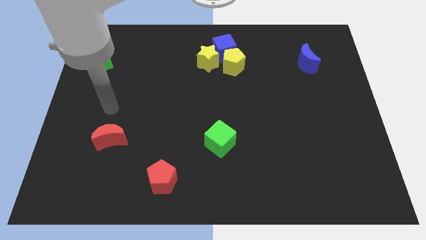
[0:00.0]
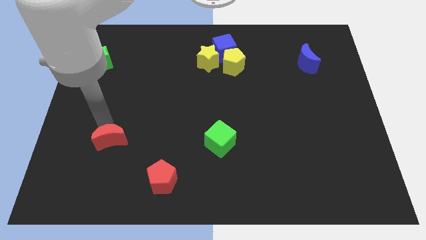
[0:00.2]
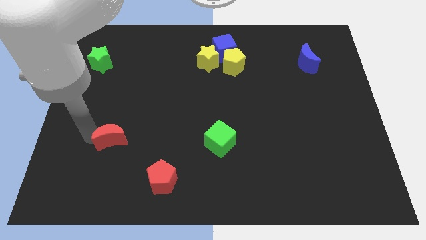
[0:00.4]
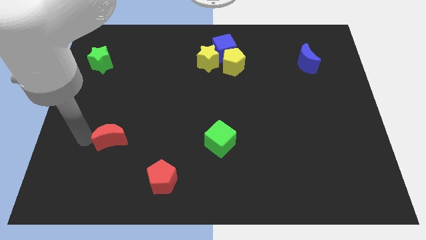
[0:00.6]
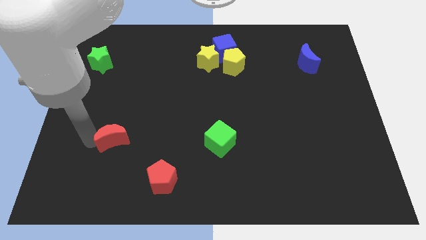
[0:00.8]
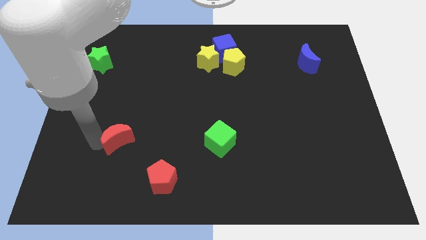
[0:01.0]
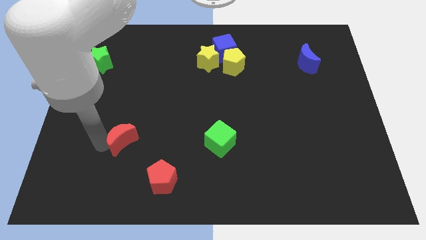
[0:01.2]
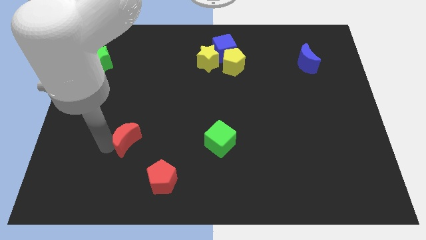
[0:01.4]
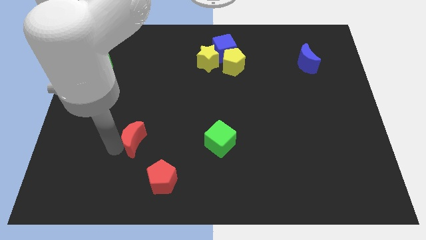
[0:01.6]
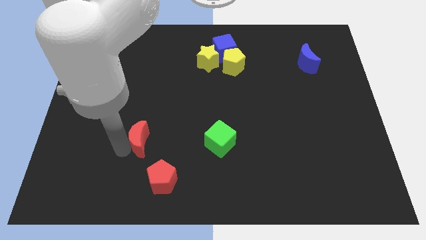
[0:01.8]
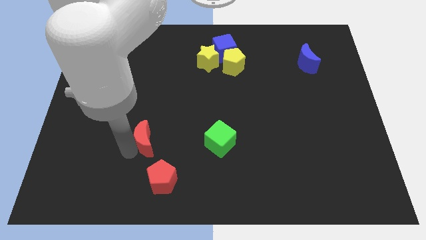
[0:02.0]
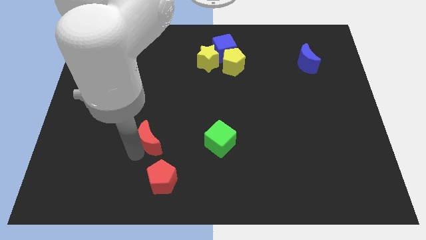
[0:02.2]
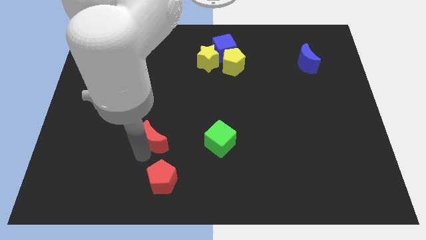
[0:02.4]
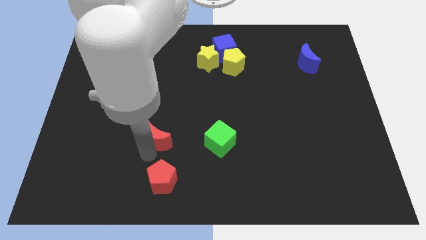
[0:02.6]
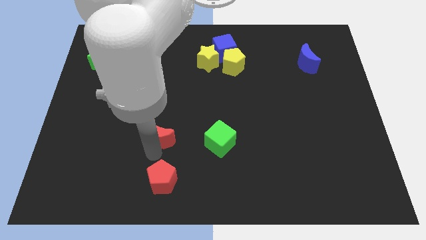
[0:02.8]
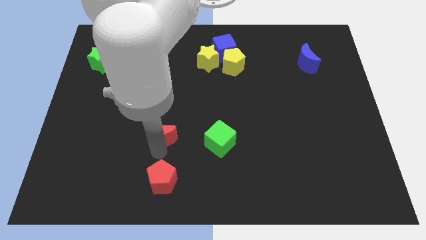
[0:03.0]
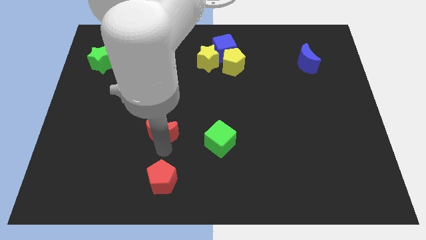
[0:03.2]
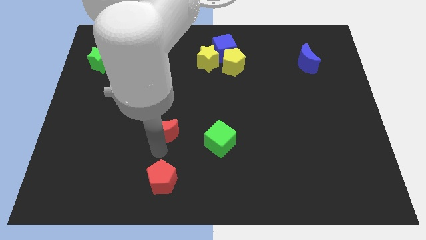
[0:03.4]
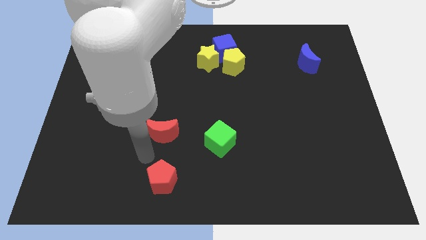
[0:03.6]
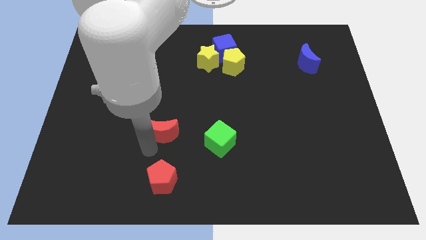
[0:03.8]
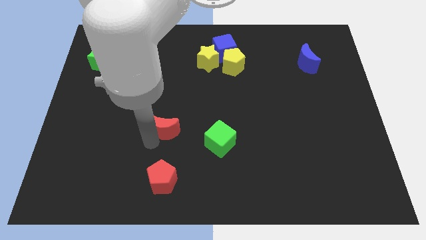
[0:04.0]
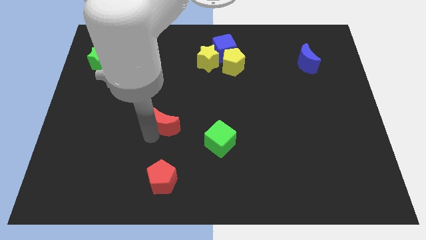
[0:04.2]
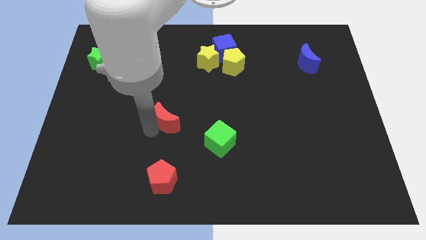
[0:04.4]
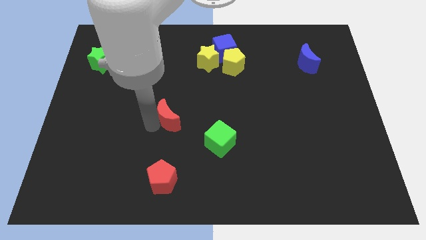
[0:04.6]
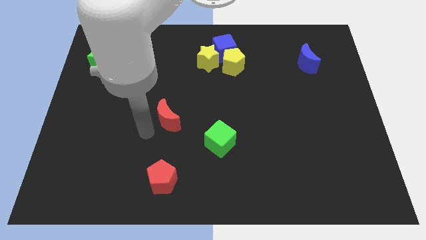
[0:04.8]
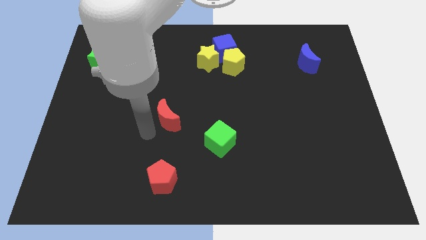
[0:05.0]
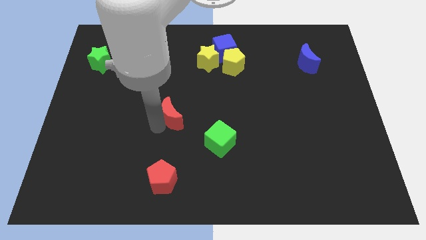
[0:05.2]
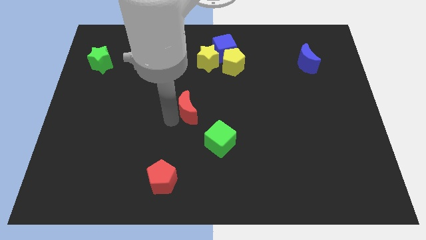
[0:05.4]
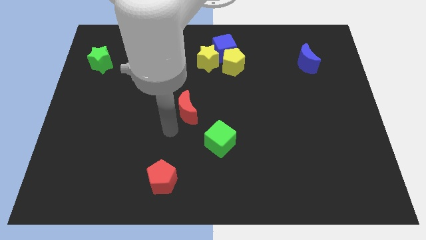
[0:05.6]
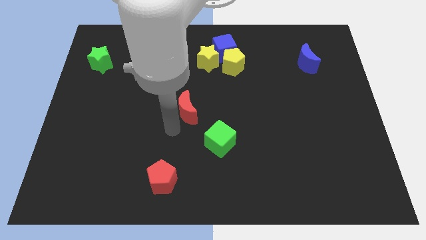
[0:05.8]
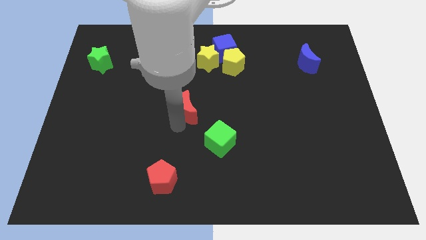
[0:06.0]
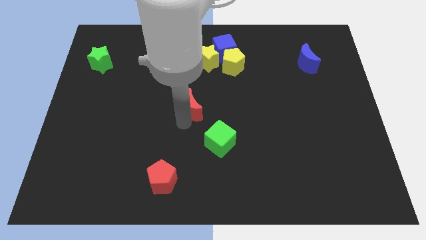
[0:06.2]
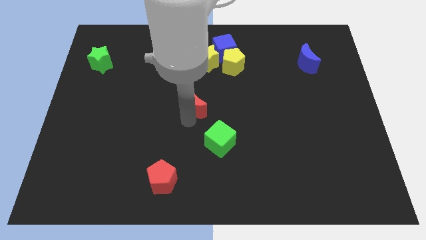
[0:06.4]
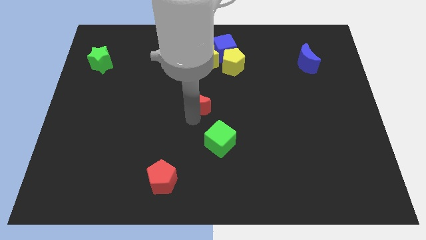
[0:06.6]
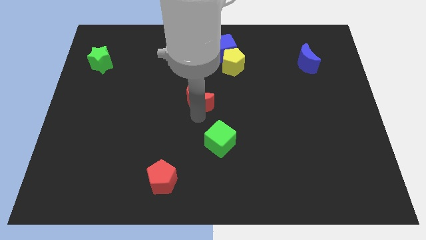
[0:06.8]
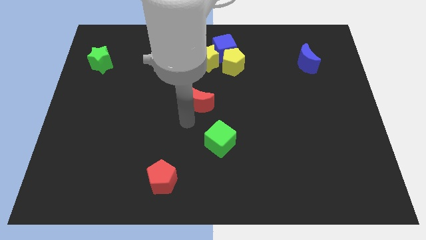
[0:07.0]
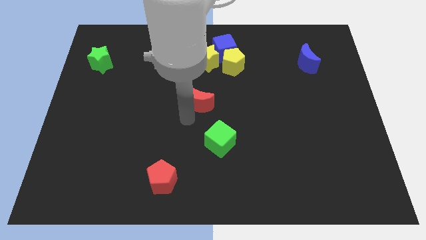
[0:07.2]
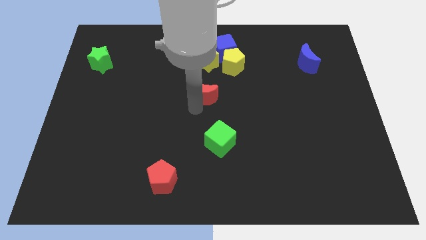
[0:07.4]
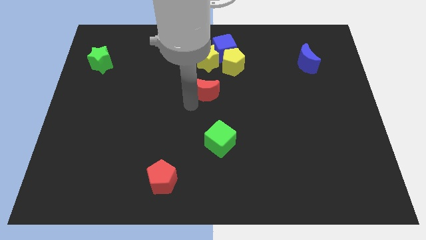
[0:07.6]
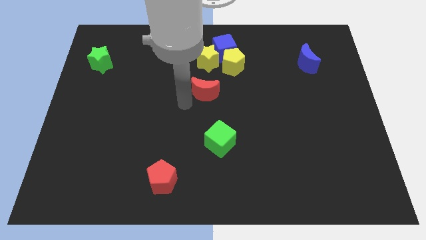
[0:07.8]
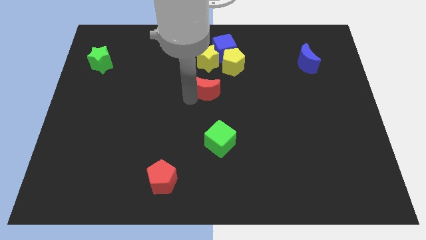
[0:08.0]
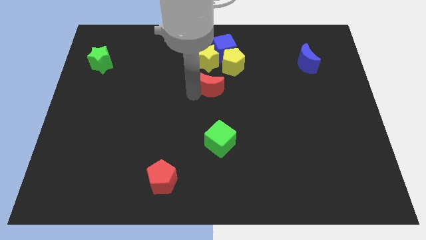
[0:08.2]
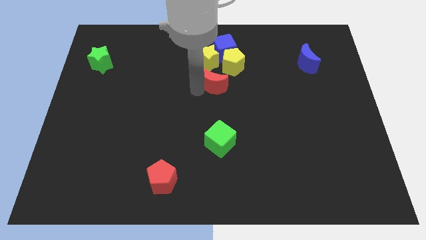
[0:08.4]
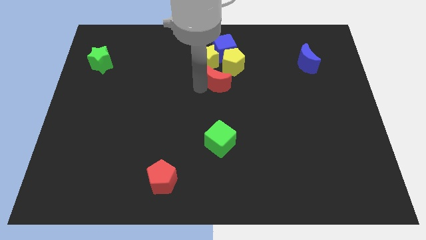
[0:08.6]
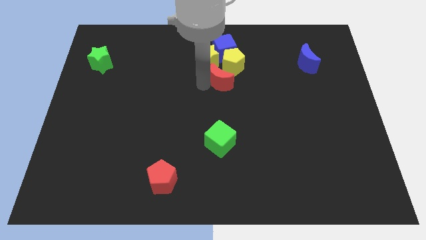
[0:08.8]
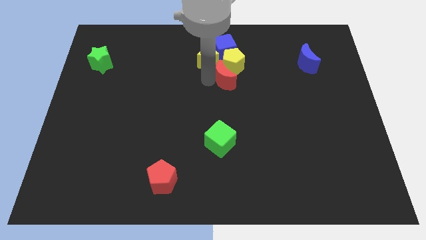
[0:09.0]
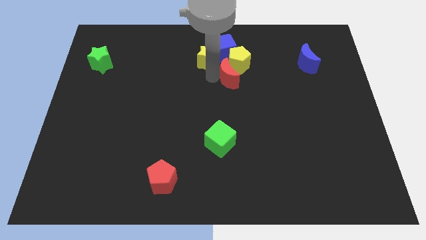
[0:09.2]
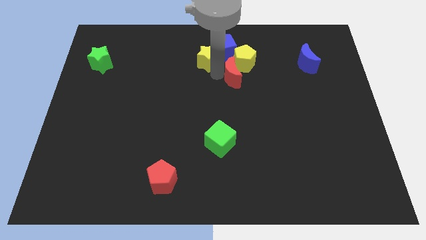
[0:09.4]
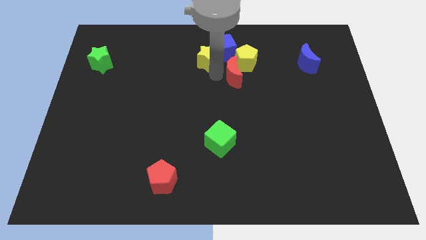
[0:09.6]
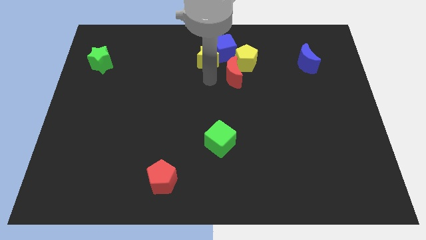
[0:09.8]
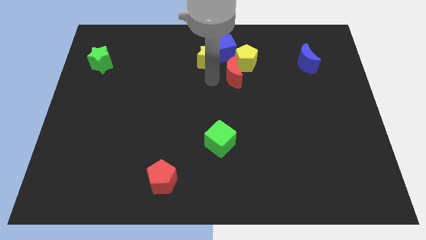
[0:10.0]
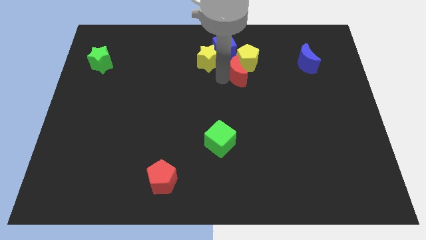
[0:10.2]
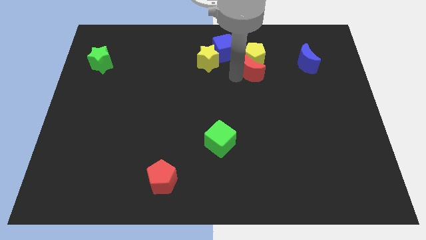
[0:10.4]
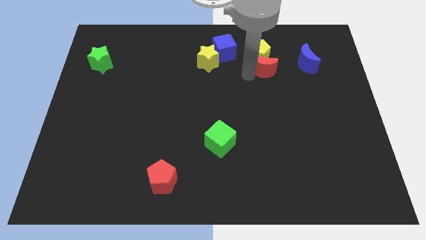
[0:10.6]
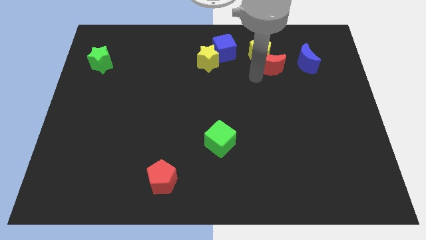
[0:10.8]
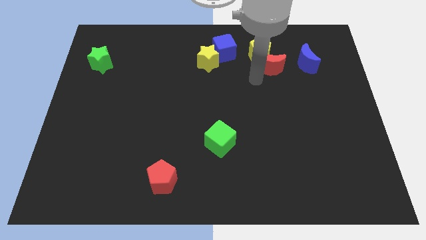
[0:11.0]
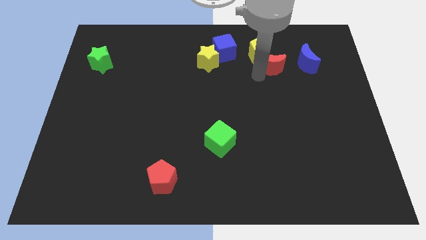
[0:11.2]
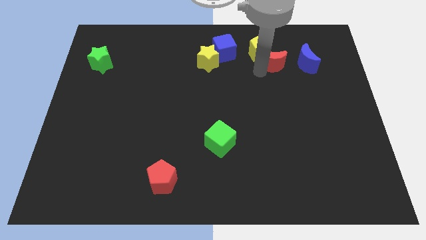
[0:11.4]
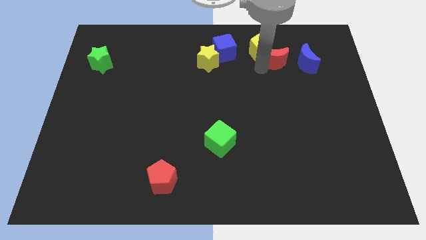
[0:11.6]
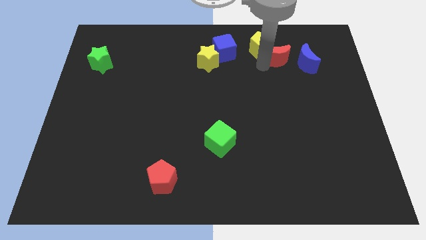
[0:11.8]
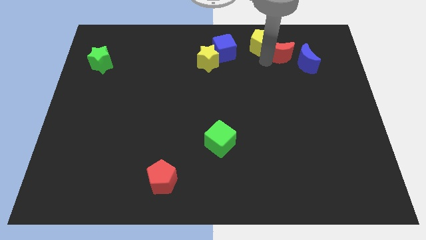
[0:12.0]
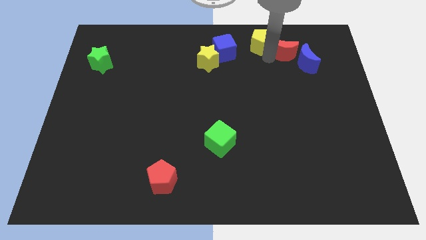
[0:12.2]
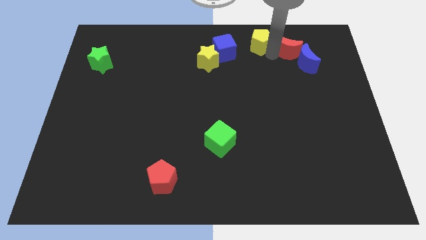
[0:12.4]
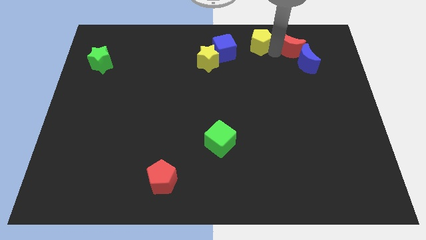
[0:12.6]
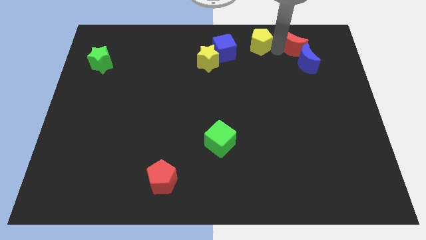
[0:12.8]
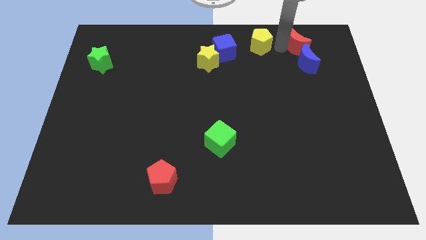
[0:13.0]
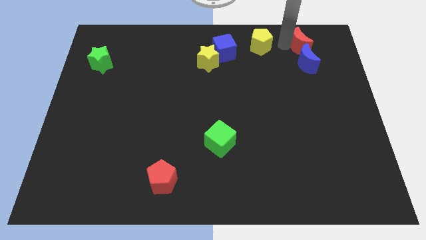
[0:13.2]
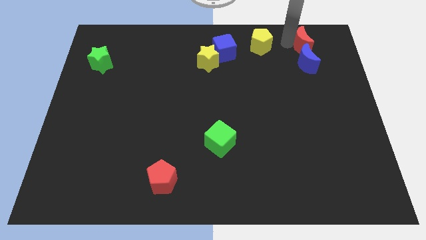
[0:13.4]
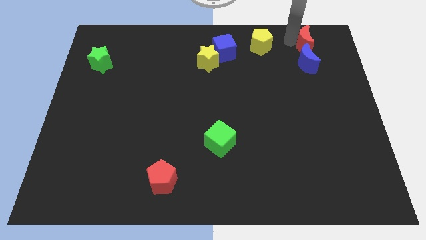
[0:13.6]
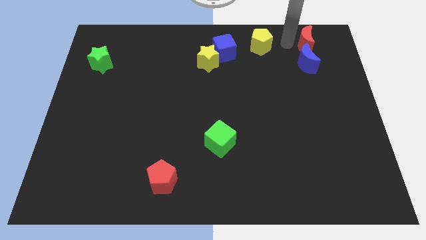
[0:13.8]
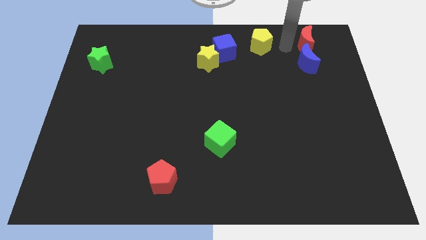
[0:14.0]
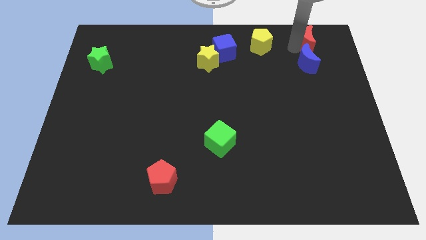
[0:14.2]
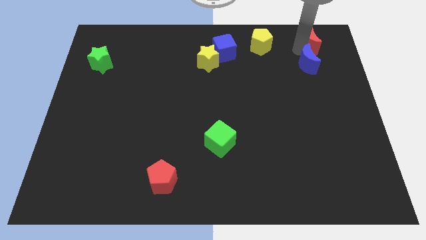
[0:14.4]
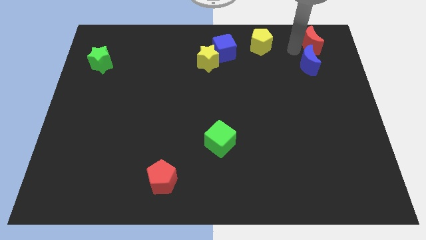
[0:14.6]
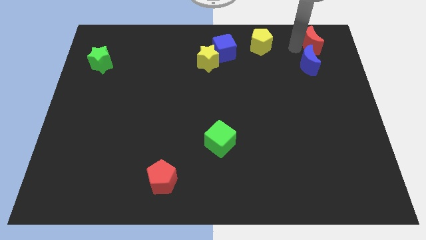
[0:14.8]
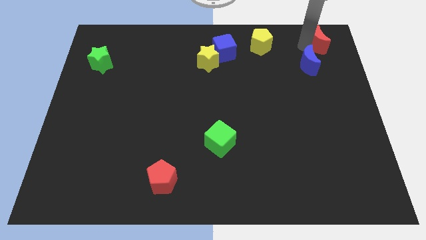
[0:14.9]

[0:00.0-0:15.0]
slide the red moon to the upper right corner
